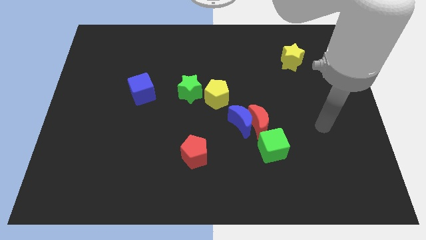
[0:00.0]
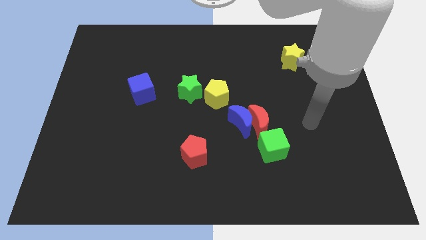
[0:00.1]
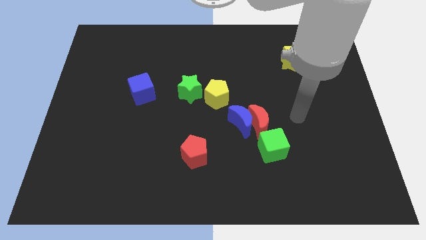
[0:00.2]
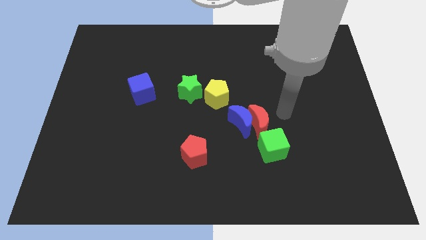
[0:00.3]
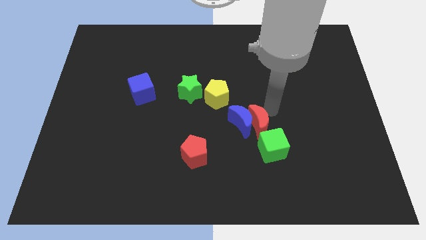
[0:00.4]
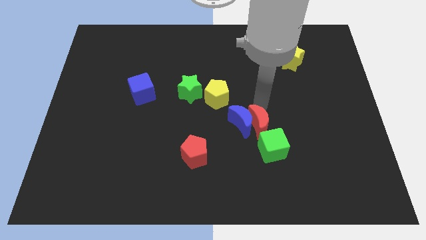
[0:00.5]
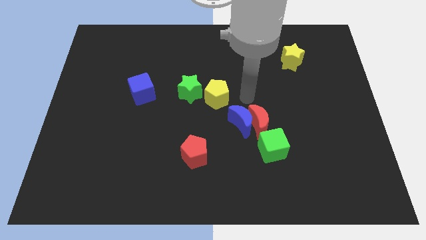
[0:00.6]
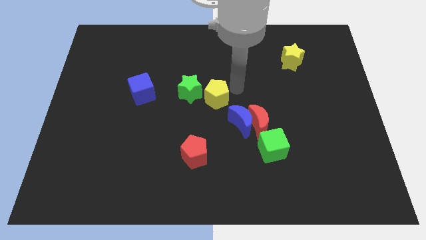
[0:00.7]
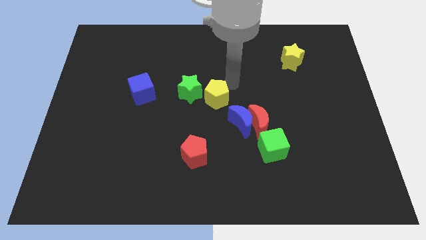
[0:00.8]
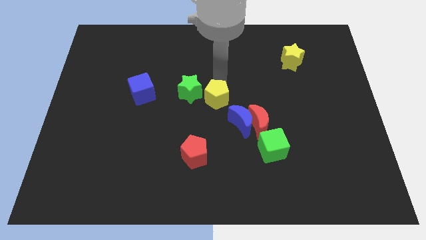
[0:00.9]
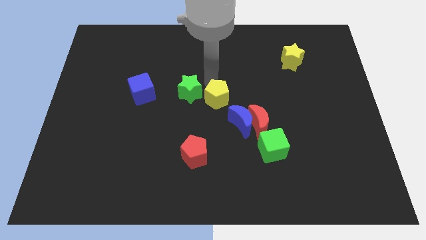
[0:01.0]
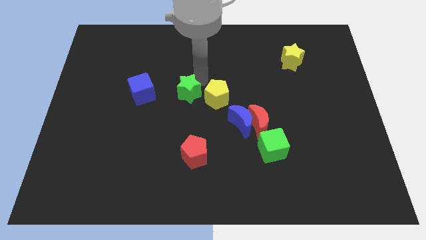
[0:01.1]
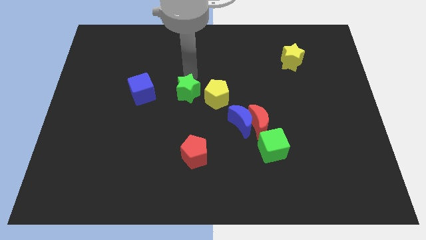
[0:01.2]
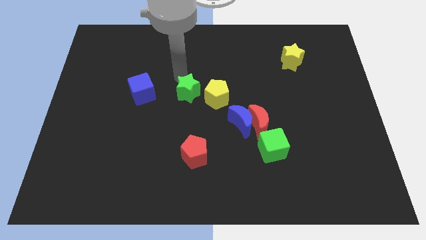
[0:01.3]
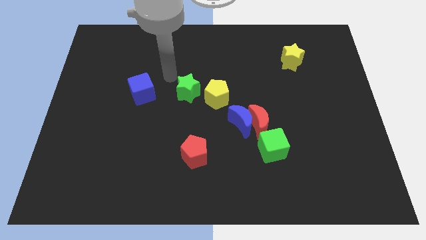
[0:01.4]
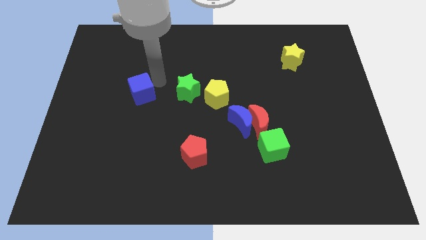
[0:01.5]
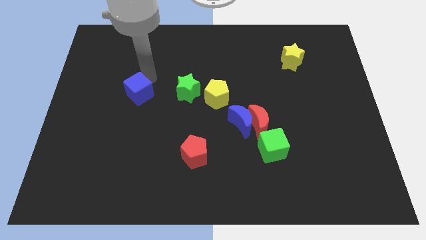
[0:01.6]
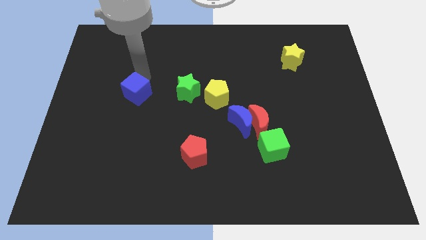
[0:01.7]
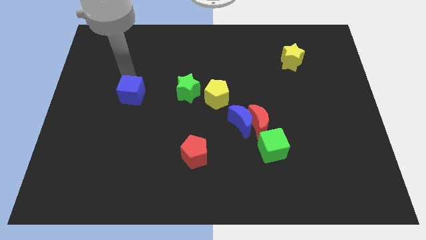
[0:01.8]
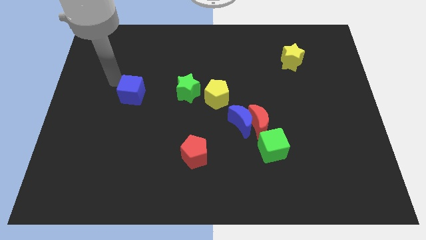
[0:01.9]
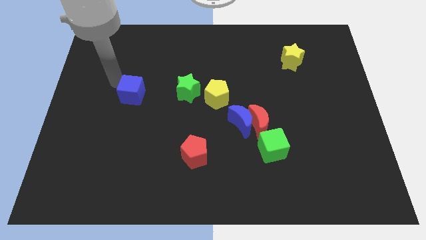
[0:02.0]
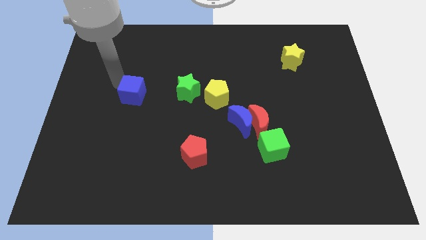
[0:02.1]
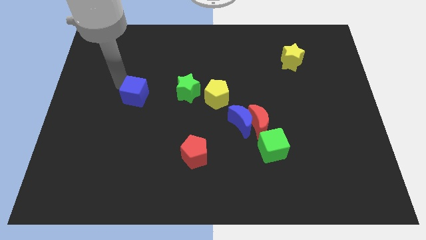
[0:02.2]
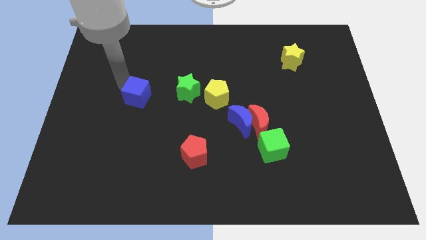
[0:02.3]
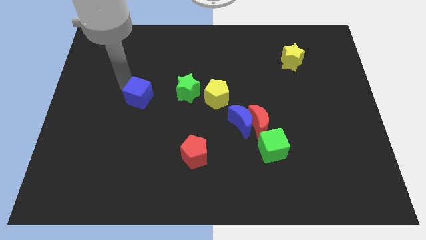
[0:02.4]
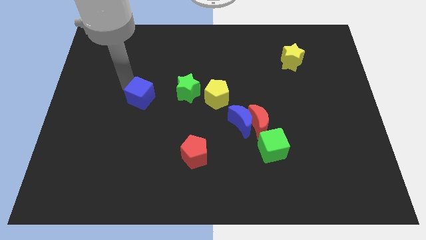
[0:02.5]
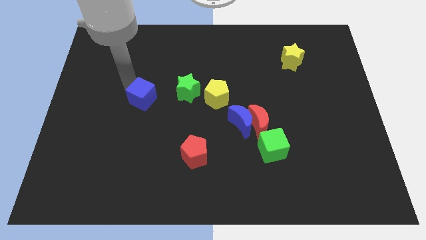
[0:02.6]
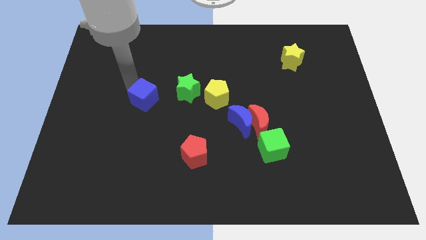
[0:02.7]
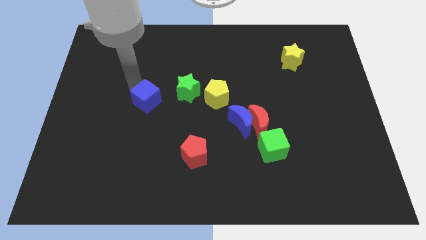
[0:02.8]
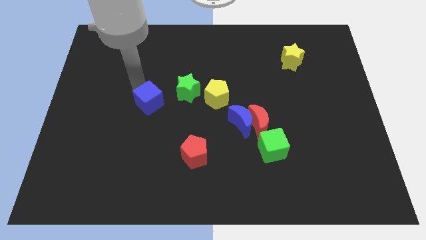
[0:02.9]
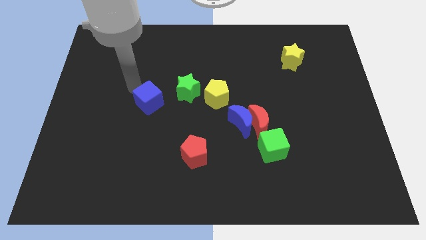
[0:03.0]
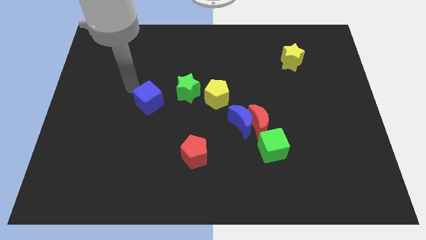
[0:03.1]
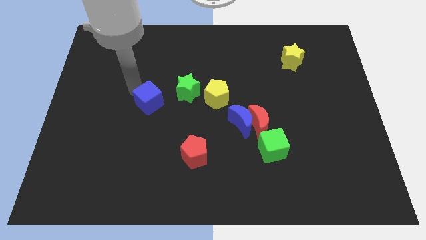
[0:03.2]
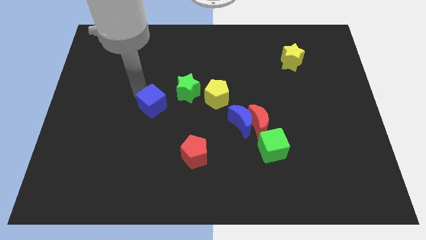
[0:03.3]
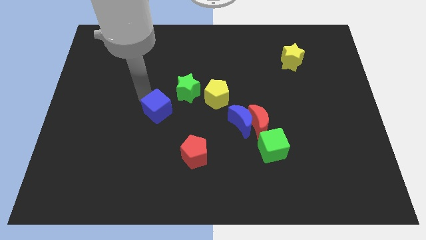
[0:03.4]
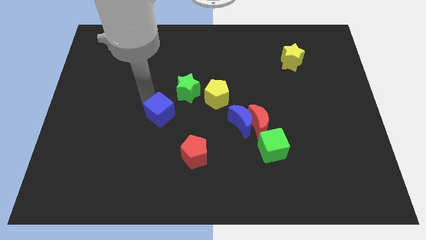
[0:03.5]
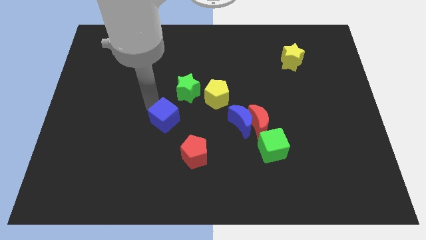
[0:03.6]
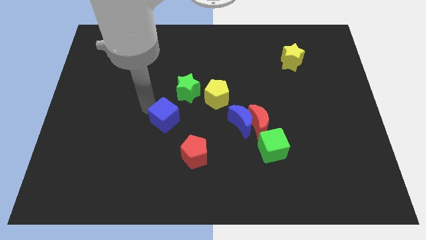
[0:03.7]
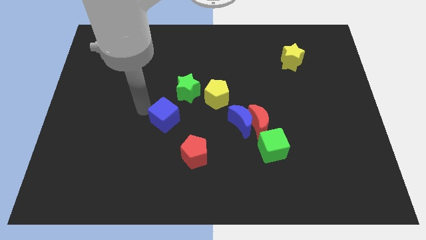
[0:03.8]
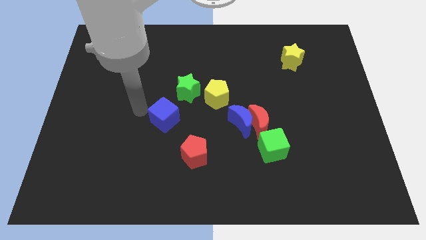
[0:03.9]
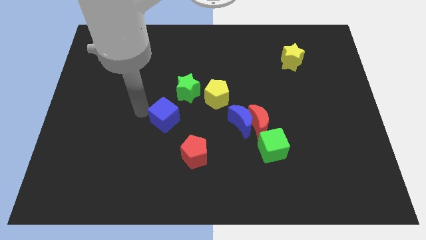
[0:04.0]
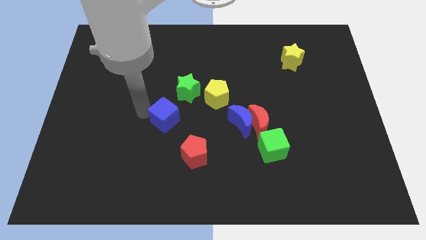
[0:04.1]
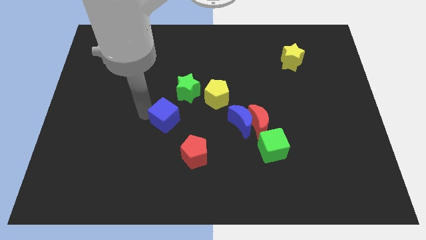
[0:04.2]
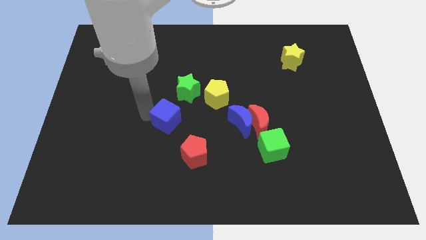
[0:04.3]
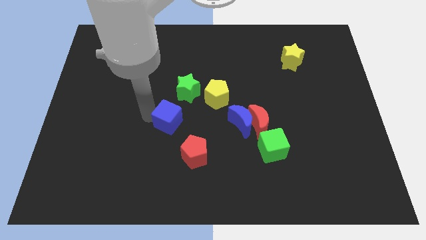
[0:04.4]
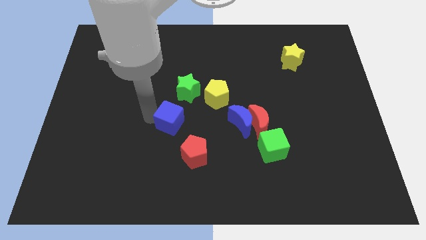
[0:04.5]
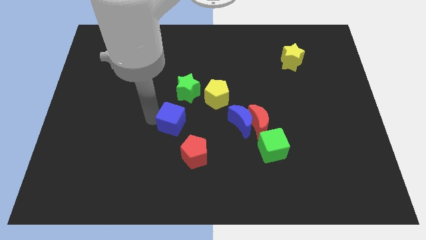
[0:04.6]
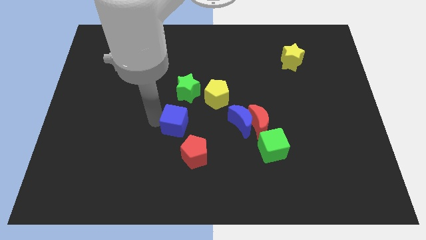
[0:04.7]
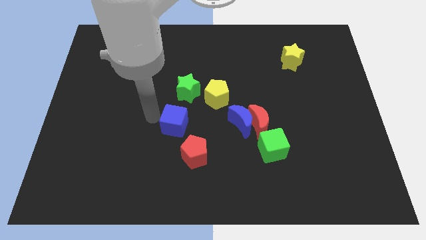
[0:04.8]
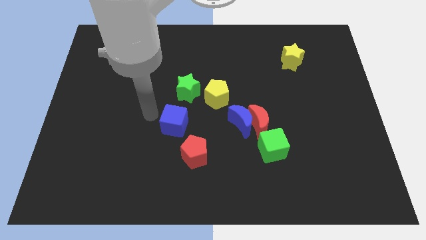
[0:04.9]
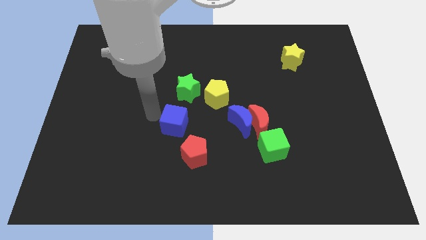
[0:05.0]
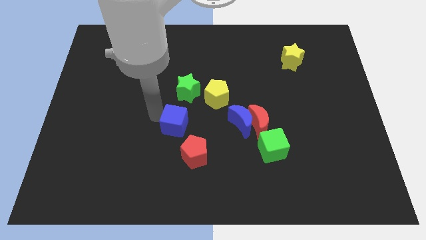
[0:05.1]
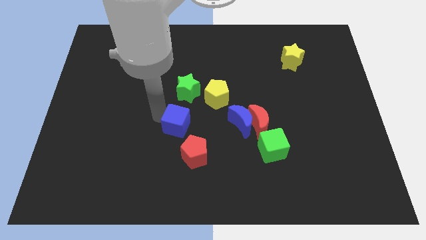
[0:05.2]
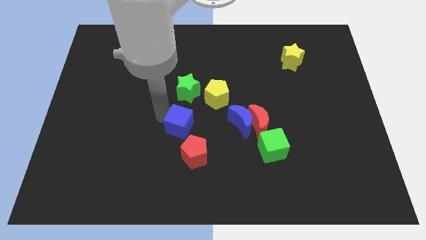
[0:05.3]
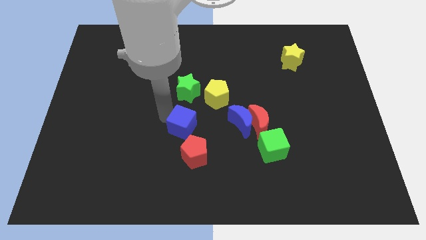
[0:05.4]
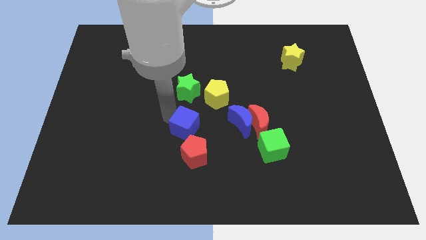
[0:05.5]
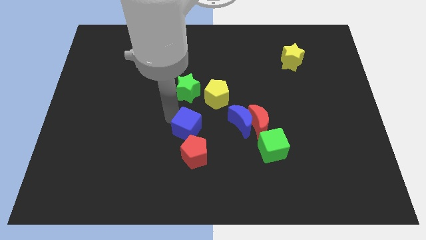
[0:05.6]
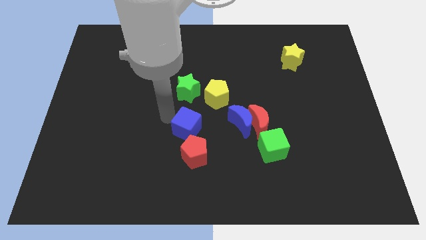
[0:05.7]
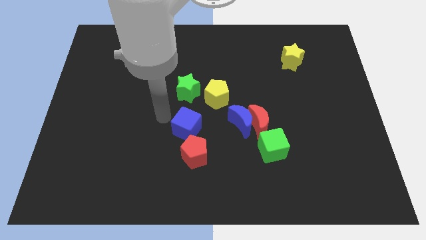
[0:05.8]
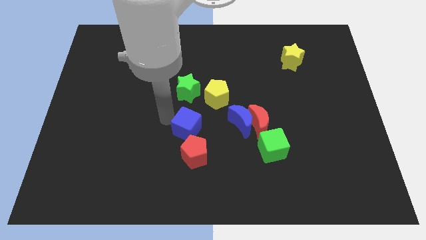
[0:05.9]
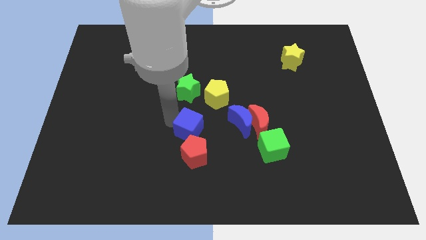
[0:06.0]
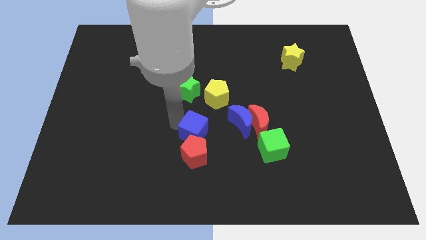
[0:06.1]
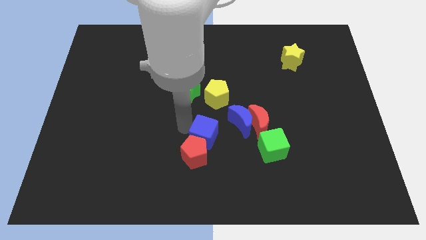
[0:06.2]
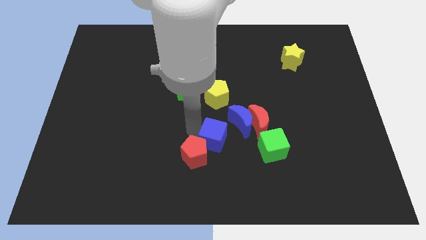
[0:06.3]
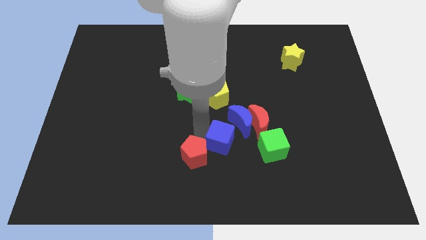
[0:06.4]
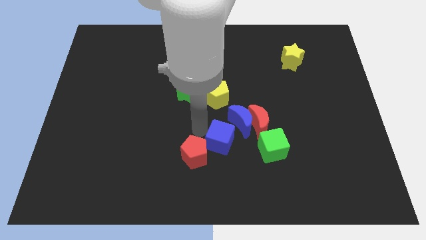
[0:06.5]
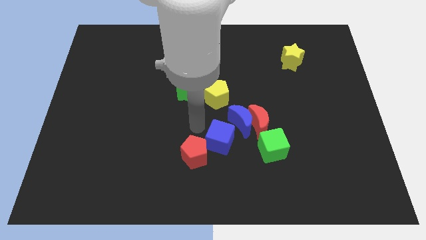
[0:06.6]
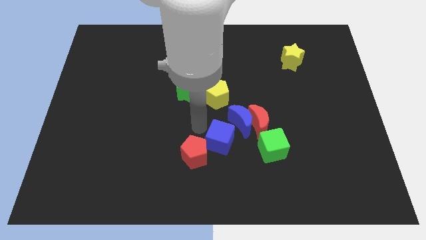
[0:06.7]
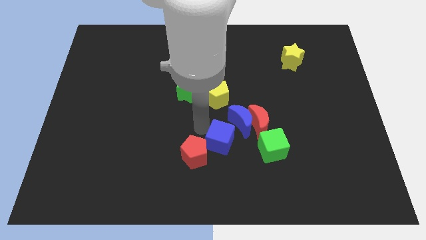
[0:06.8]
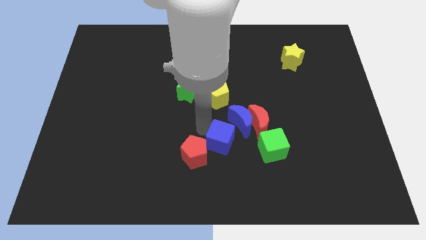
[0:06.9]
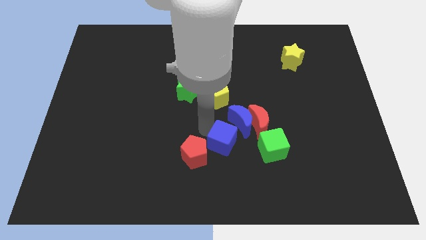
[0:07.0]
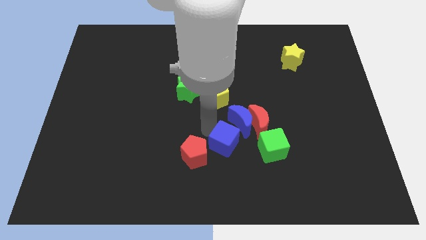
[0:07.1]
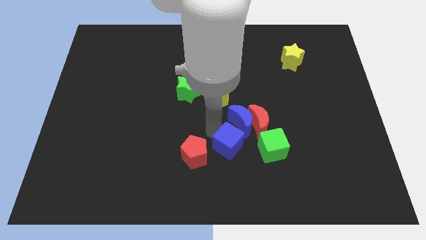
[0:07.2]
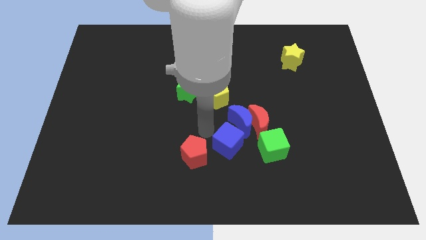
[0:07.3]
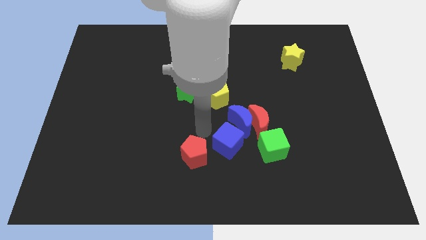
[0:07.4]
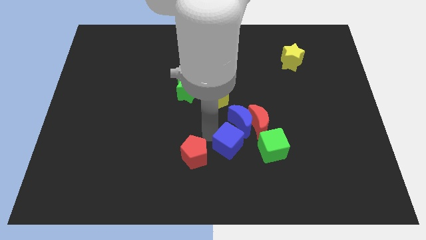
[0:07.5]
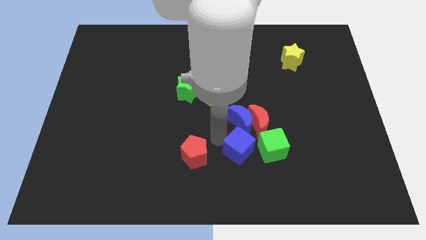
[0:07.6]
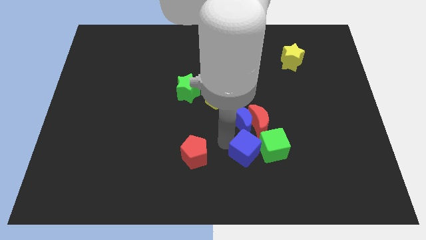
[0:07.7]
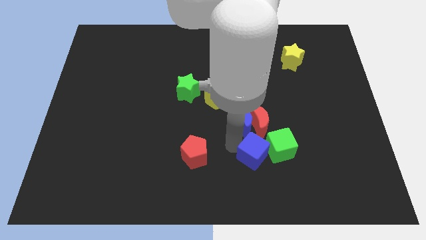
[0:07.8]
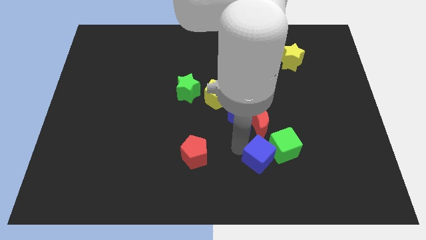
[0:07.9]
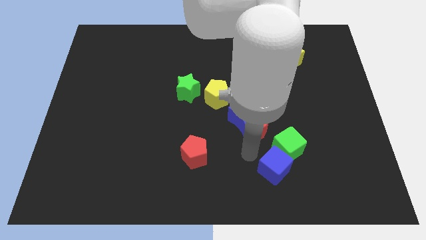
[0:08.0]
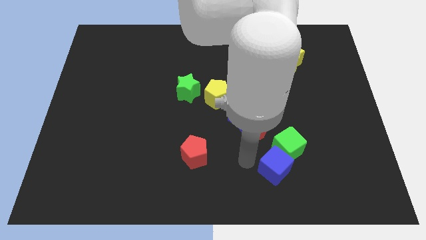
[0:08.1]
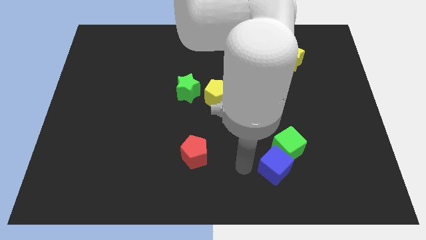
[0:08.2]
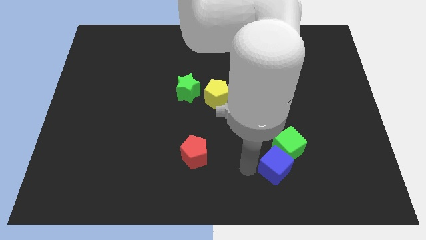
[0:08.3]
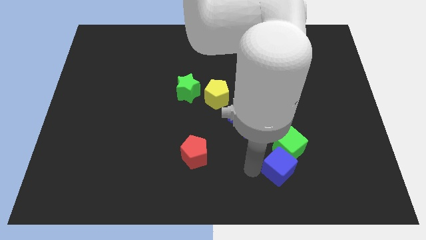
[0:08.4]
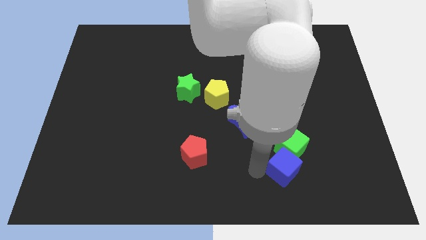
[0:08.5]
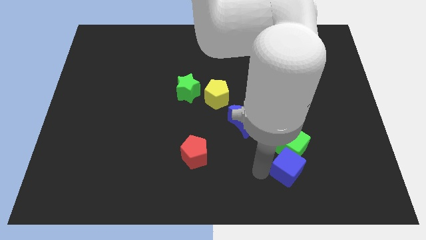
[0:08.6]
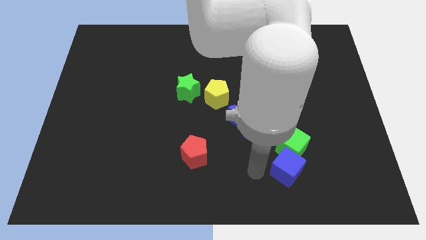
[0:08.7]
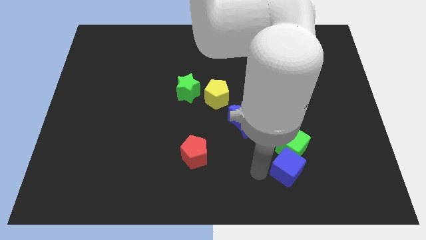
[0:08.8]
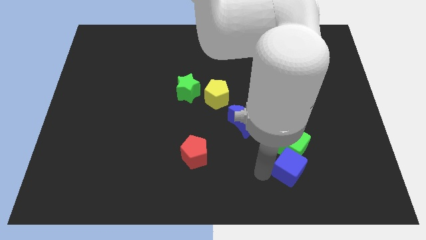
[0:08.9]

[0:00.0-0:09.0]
push the blue cube to the bottom right of the green cube
